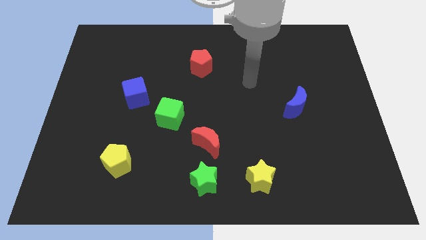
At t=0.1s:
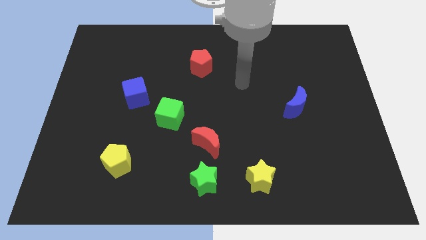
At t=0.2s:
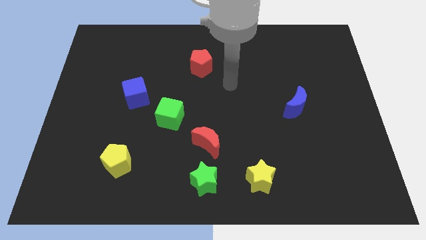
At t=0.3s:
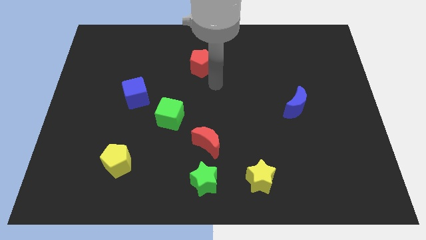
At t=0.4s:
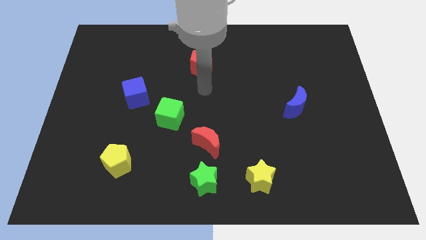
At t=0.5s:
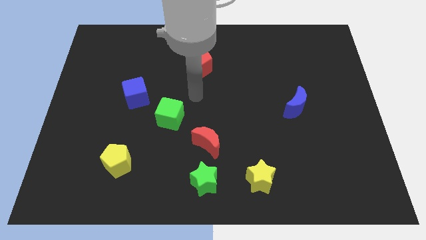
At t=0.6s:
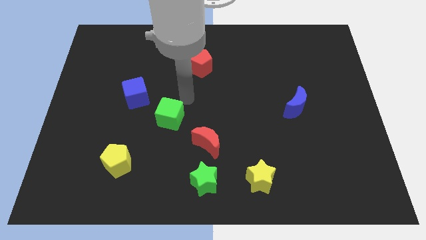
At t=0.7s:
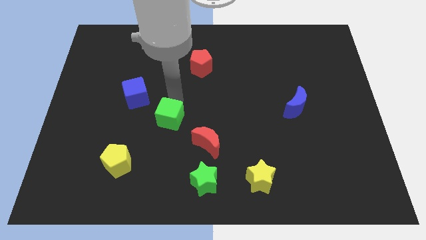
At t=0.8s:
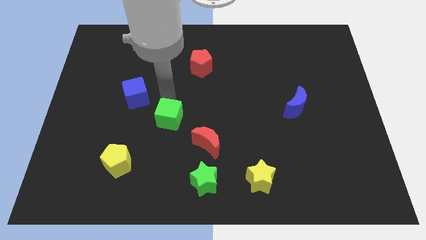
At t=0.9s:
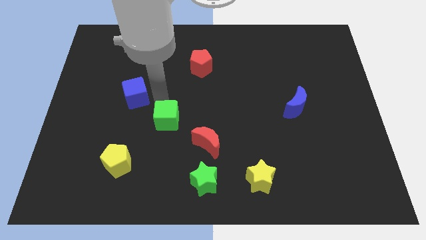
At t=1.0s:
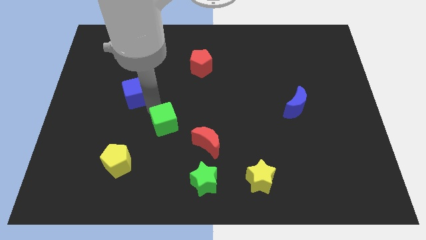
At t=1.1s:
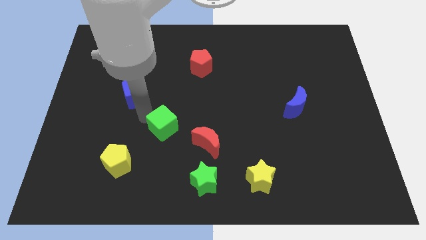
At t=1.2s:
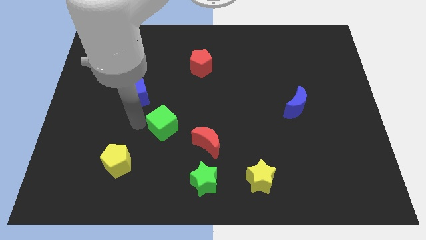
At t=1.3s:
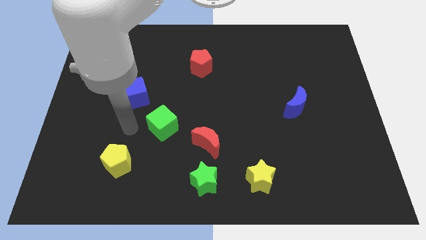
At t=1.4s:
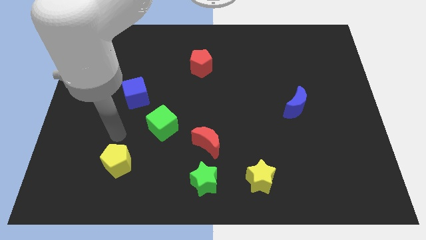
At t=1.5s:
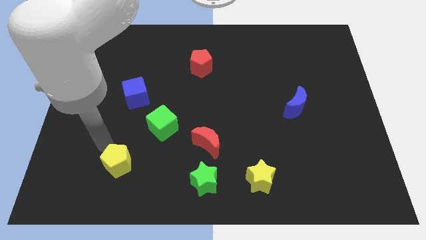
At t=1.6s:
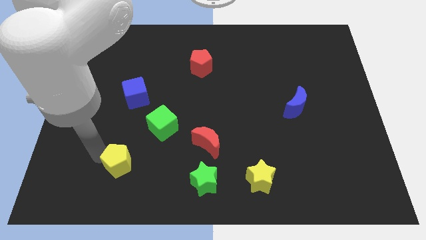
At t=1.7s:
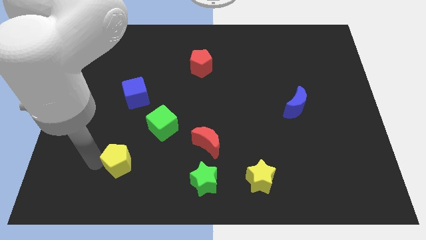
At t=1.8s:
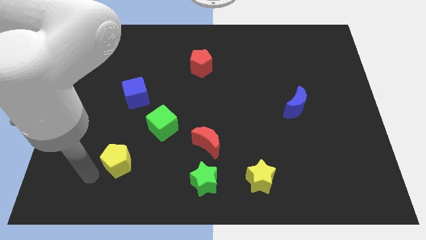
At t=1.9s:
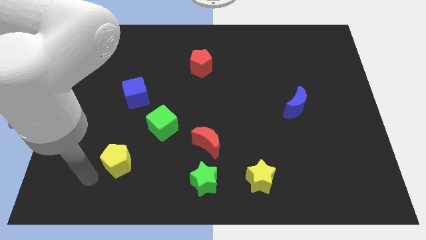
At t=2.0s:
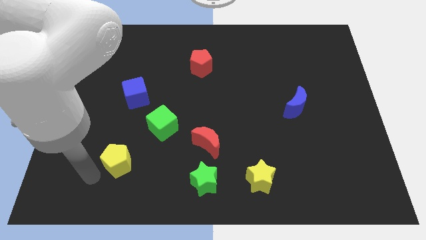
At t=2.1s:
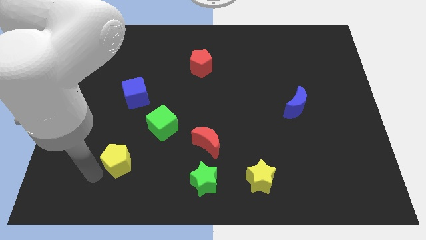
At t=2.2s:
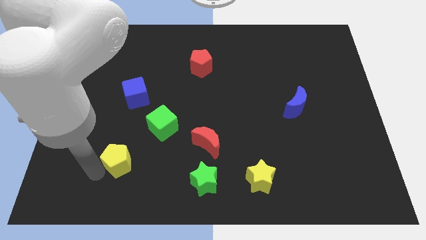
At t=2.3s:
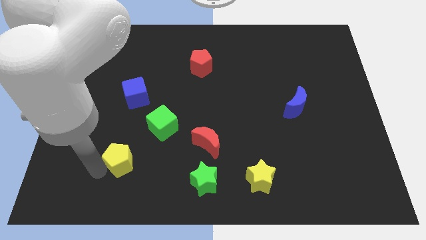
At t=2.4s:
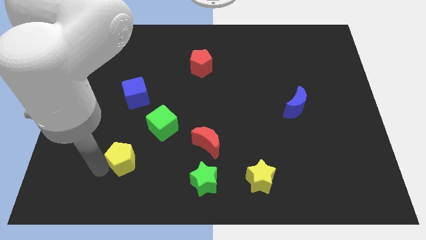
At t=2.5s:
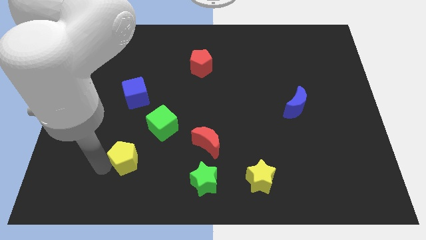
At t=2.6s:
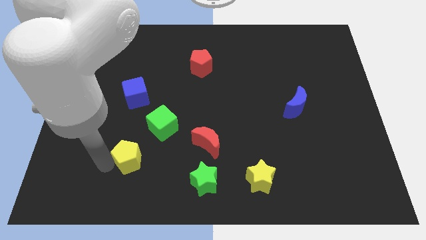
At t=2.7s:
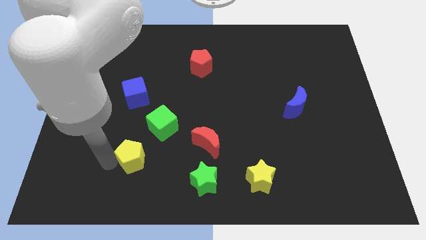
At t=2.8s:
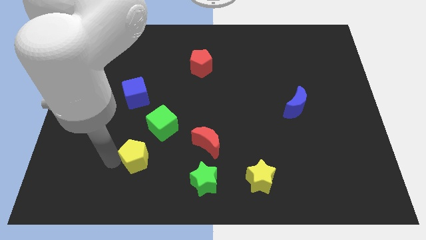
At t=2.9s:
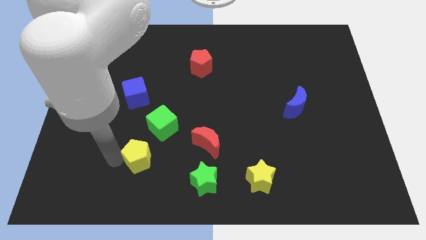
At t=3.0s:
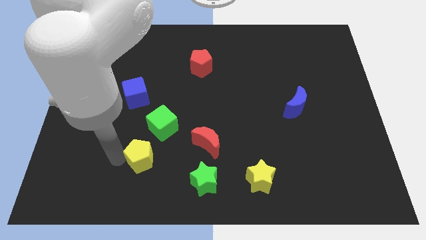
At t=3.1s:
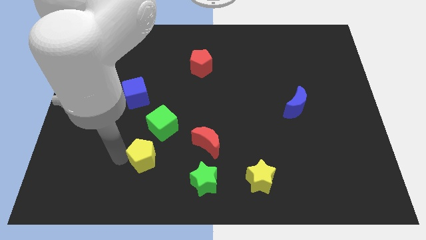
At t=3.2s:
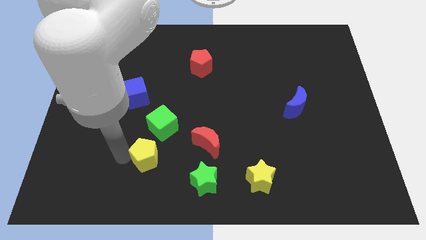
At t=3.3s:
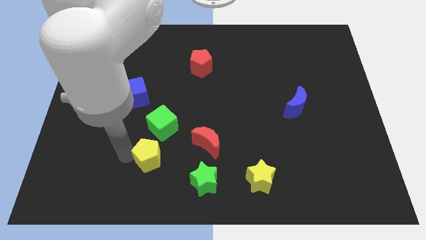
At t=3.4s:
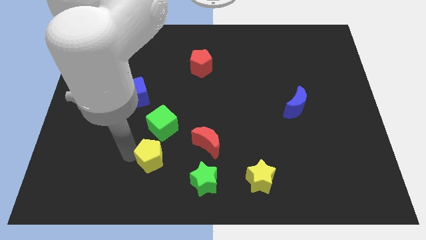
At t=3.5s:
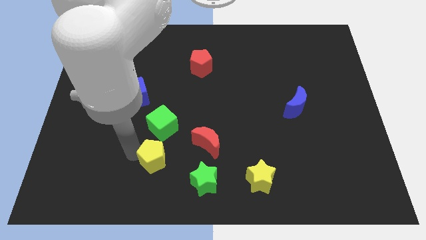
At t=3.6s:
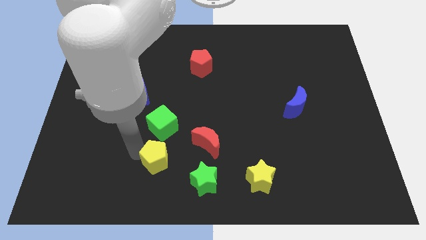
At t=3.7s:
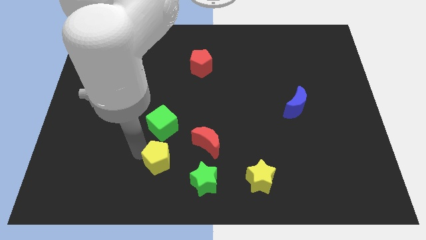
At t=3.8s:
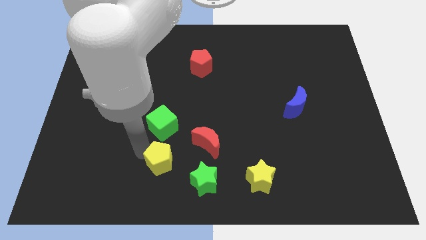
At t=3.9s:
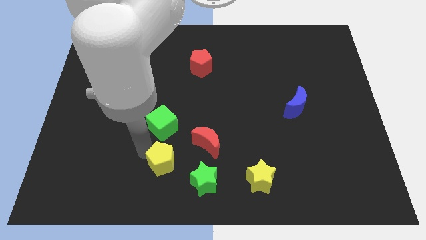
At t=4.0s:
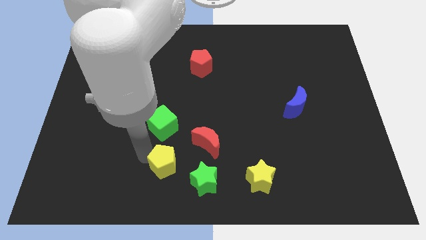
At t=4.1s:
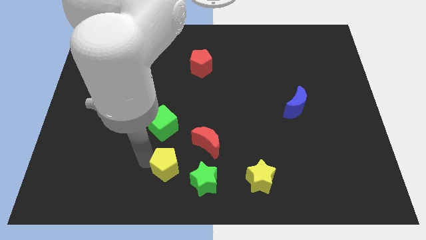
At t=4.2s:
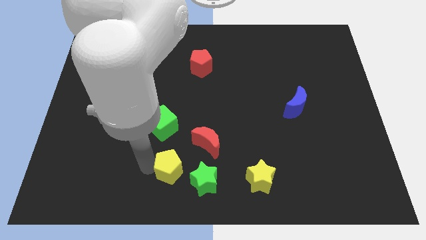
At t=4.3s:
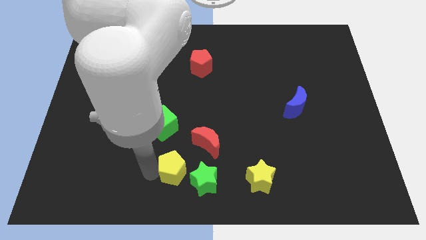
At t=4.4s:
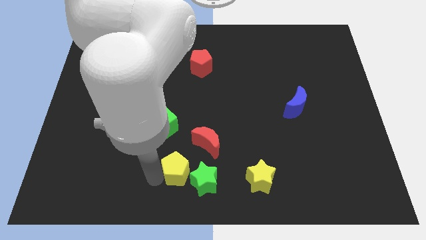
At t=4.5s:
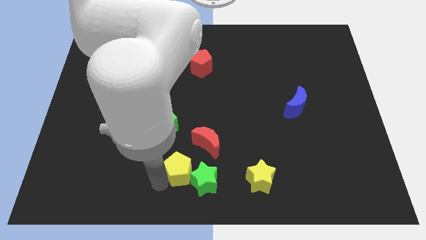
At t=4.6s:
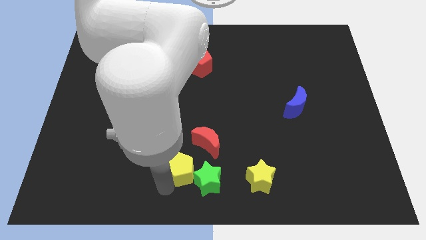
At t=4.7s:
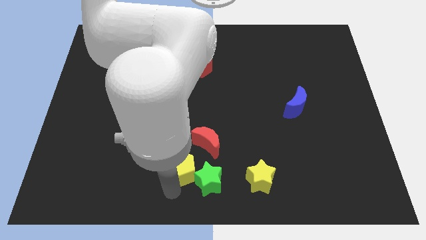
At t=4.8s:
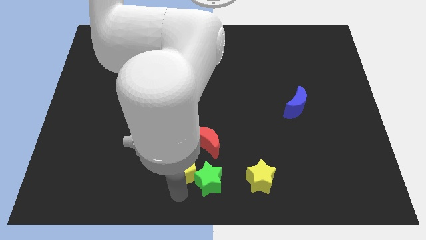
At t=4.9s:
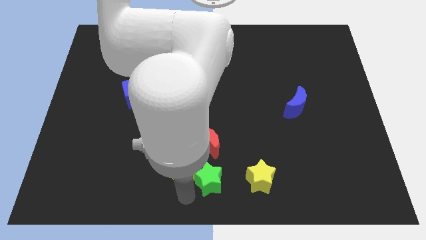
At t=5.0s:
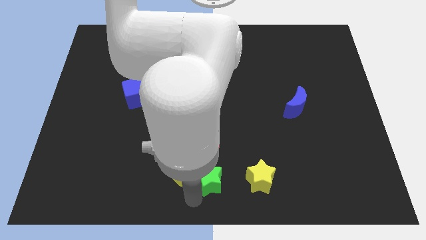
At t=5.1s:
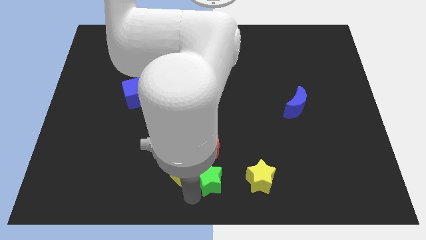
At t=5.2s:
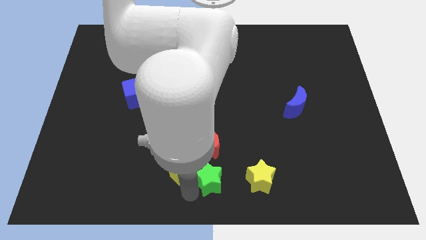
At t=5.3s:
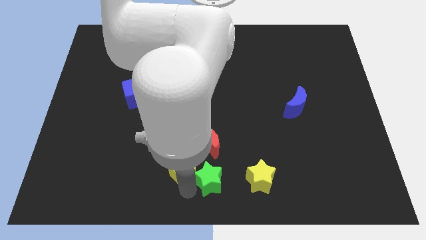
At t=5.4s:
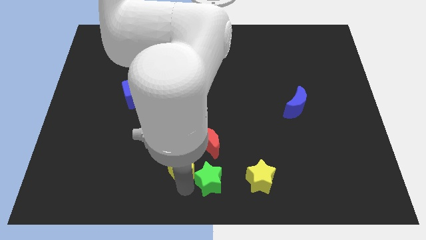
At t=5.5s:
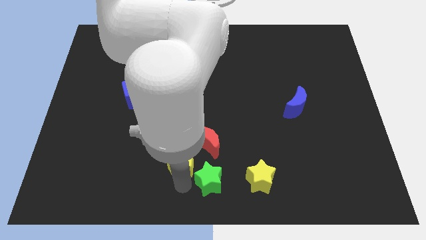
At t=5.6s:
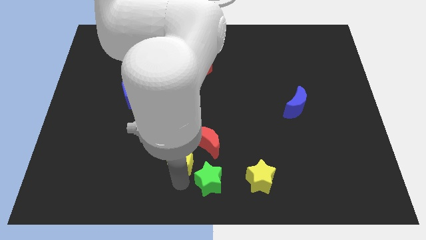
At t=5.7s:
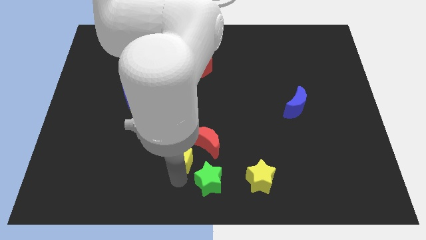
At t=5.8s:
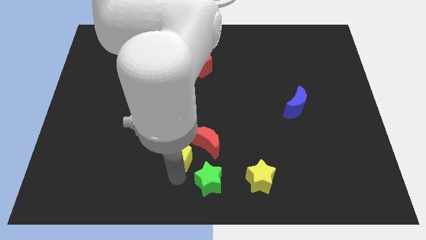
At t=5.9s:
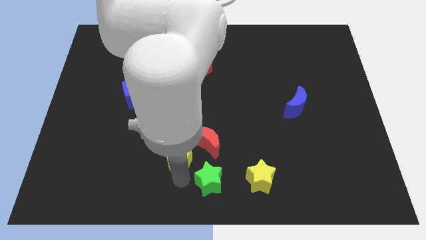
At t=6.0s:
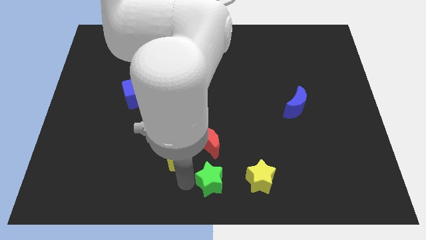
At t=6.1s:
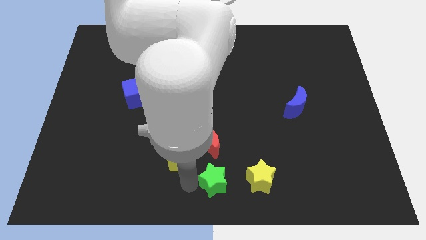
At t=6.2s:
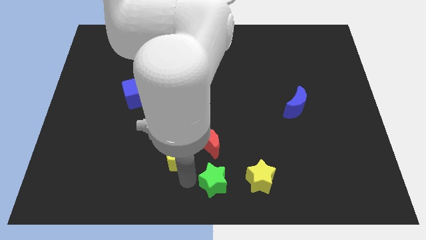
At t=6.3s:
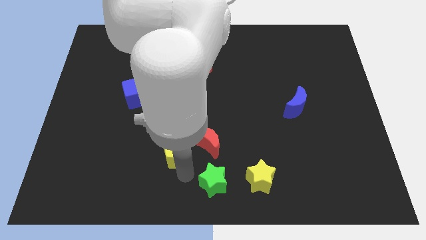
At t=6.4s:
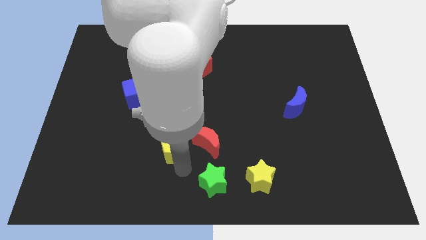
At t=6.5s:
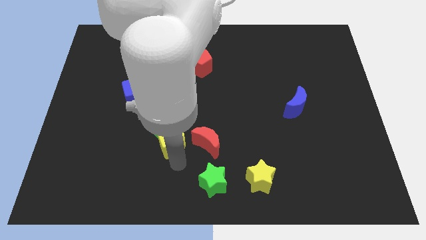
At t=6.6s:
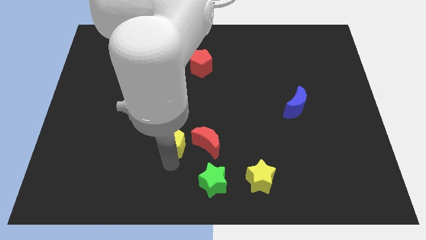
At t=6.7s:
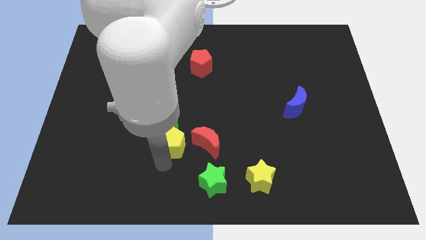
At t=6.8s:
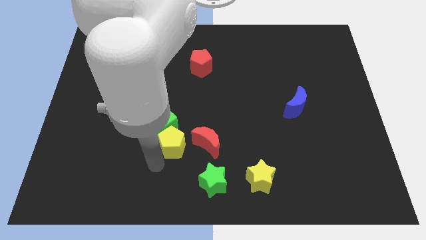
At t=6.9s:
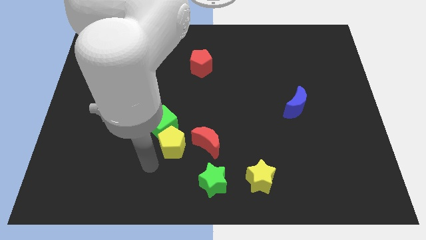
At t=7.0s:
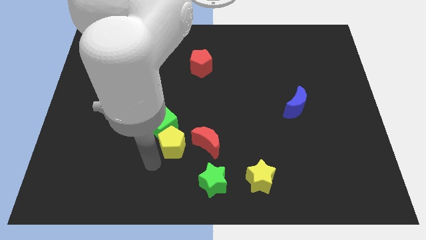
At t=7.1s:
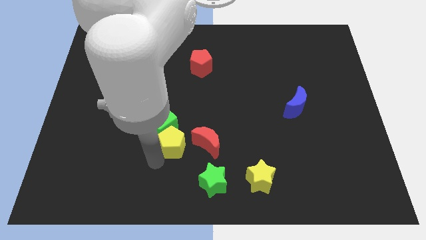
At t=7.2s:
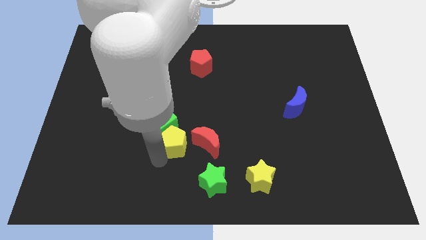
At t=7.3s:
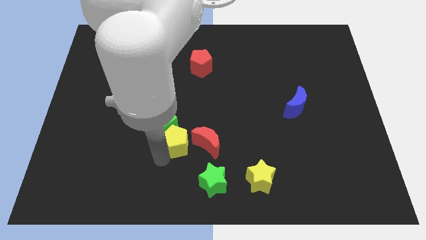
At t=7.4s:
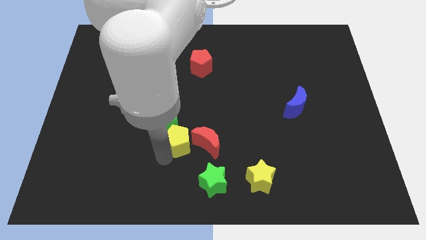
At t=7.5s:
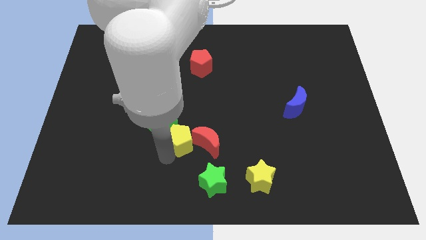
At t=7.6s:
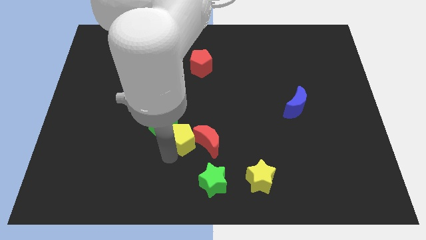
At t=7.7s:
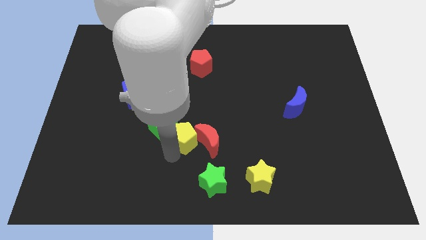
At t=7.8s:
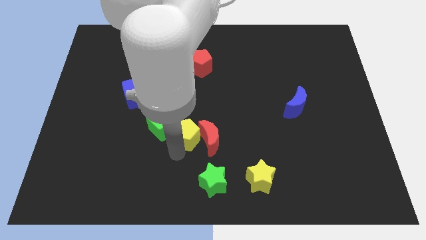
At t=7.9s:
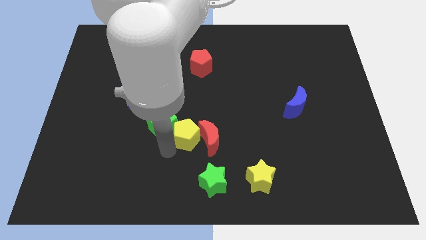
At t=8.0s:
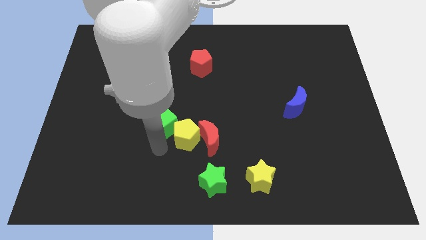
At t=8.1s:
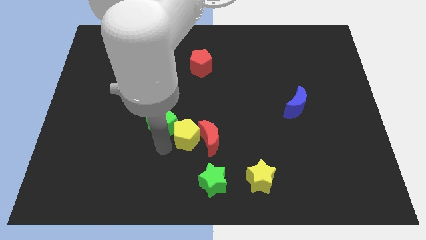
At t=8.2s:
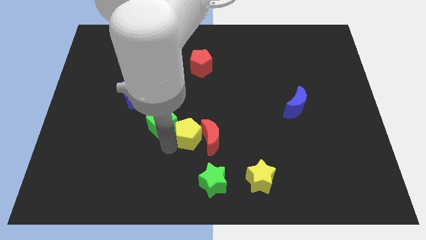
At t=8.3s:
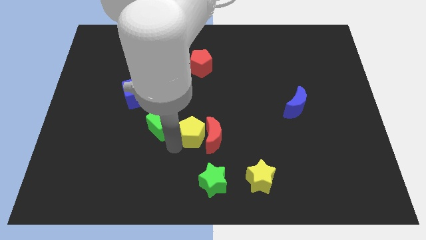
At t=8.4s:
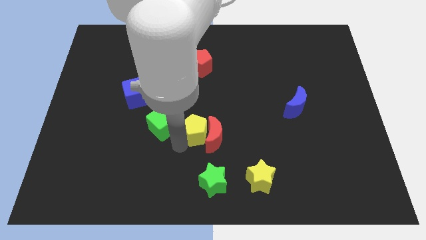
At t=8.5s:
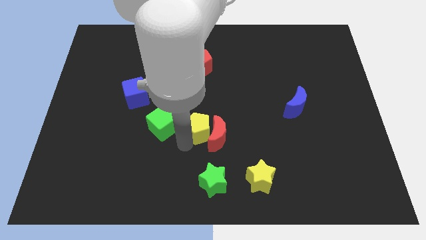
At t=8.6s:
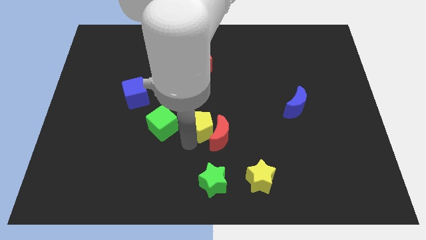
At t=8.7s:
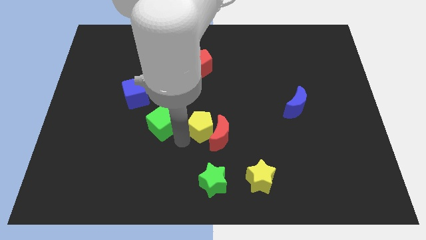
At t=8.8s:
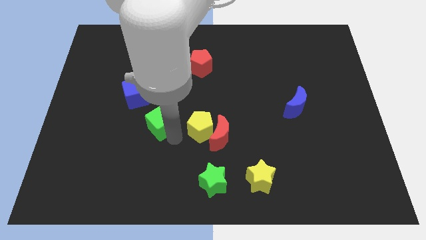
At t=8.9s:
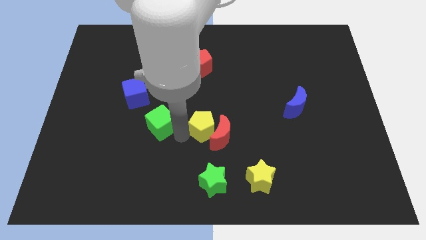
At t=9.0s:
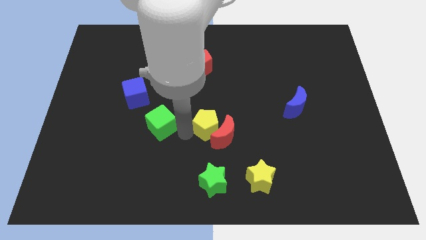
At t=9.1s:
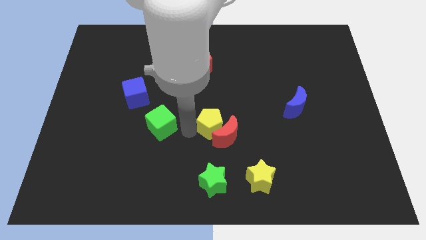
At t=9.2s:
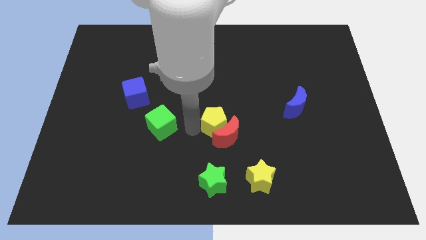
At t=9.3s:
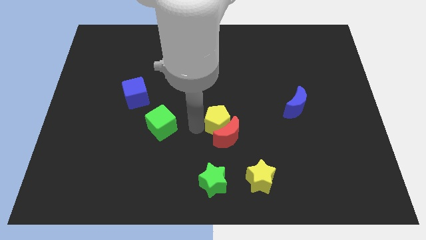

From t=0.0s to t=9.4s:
slide the yellow pentagon diagonally up and to the right of the red moon
